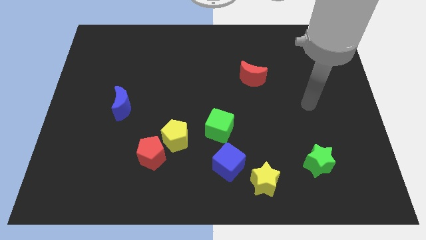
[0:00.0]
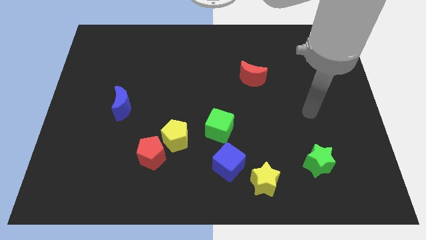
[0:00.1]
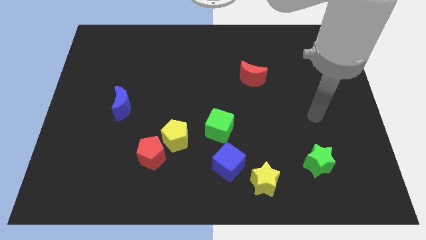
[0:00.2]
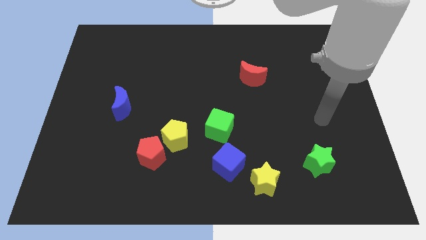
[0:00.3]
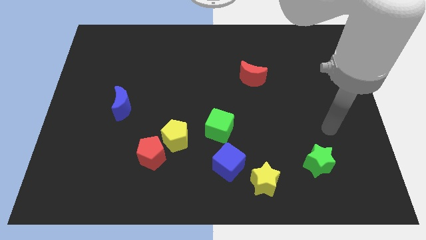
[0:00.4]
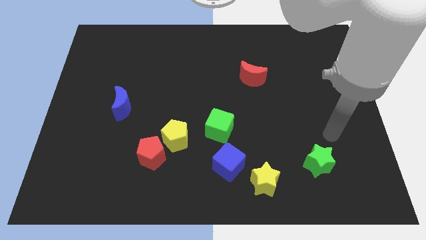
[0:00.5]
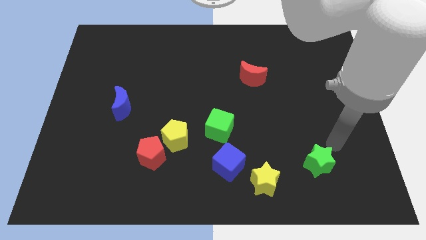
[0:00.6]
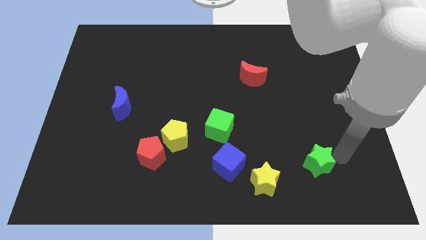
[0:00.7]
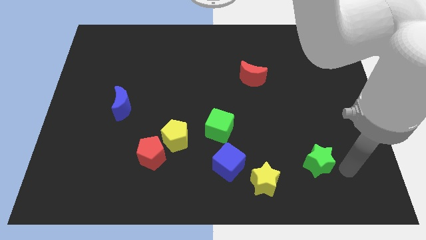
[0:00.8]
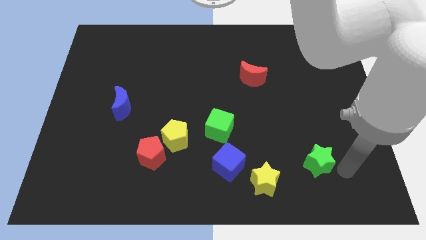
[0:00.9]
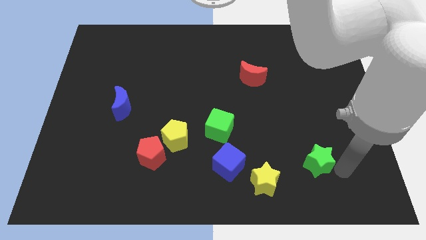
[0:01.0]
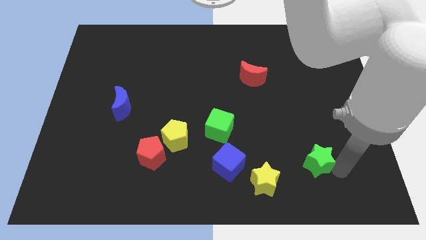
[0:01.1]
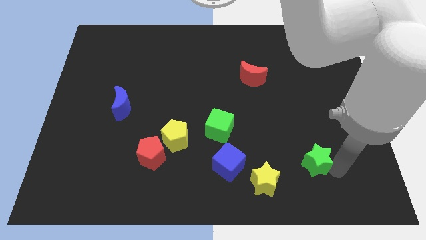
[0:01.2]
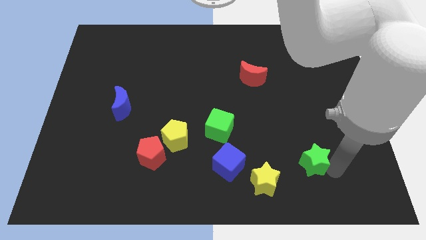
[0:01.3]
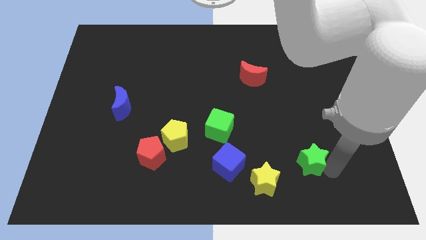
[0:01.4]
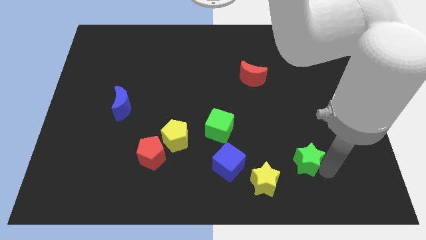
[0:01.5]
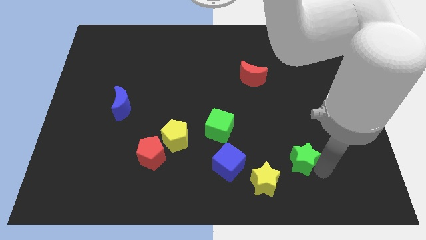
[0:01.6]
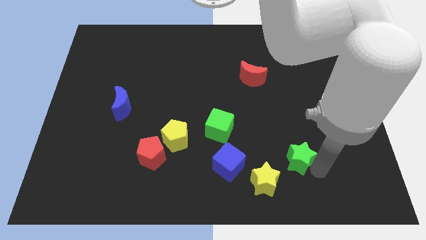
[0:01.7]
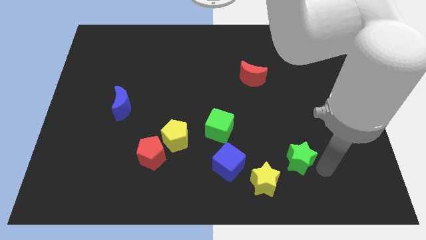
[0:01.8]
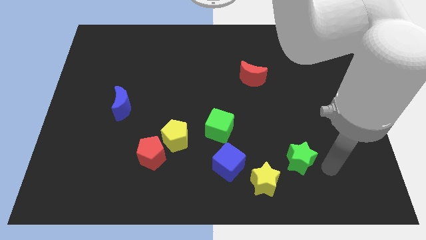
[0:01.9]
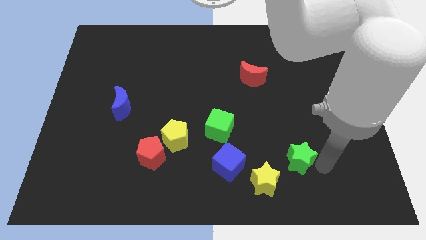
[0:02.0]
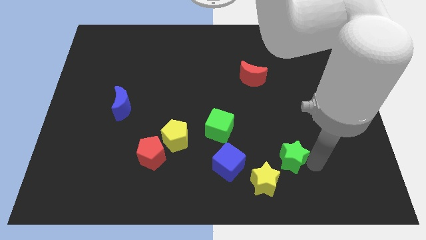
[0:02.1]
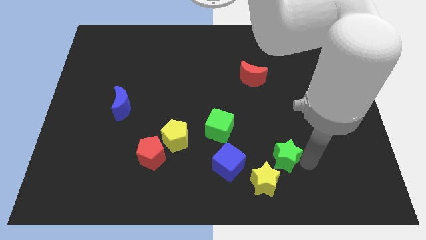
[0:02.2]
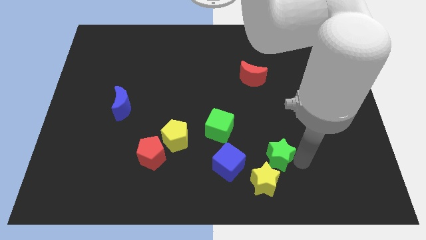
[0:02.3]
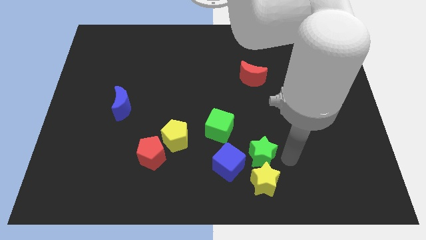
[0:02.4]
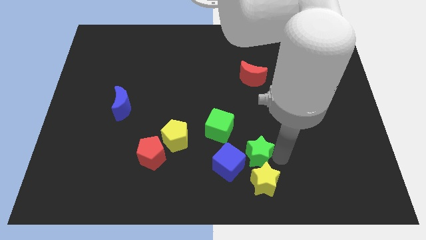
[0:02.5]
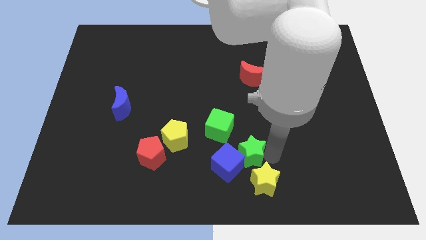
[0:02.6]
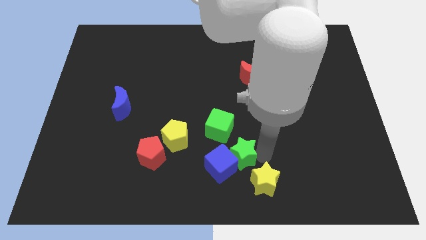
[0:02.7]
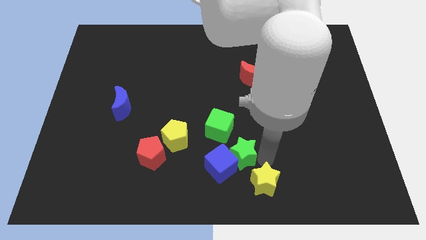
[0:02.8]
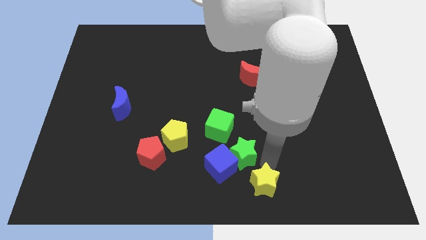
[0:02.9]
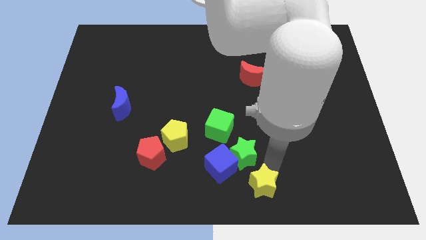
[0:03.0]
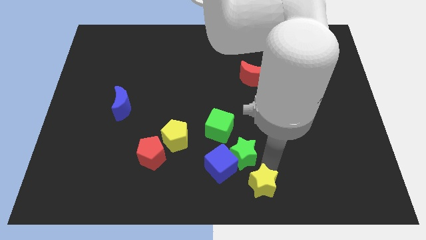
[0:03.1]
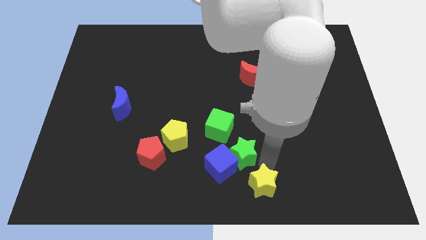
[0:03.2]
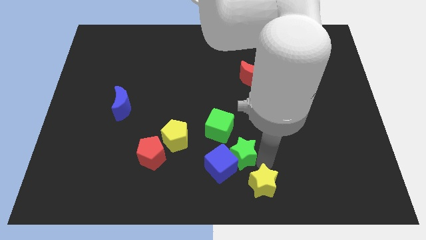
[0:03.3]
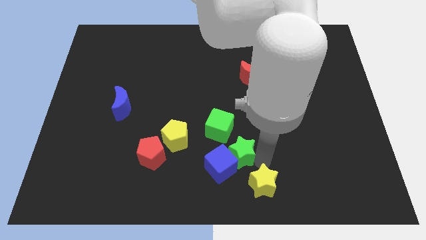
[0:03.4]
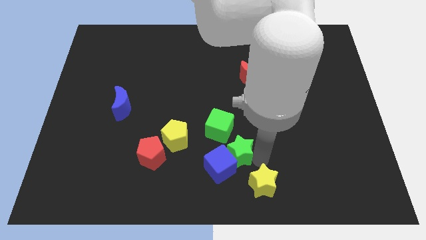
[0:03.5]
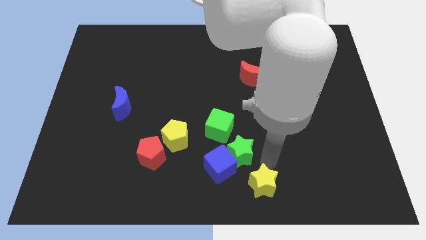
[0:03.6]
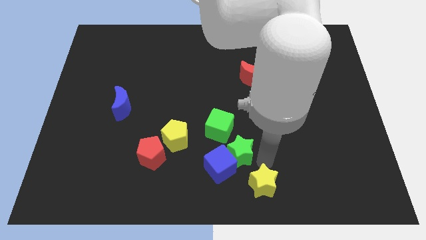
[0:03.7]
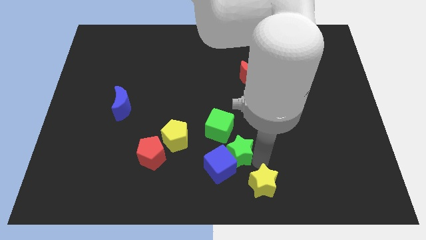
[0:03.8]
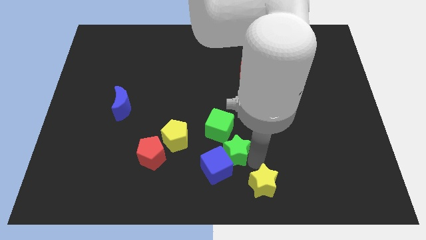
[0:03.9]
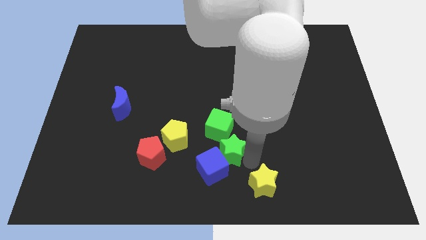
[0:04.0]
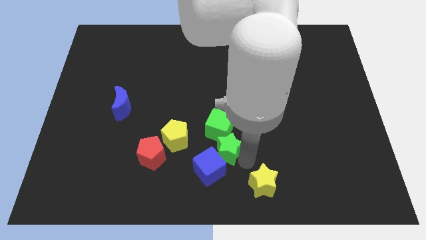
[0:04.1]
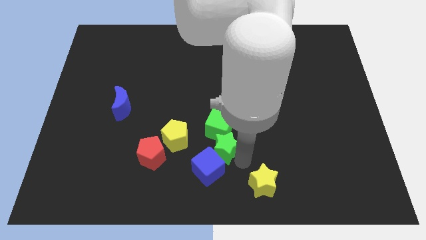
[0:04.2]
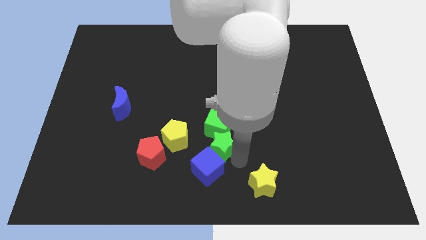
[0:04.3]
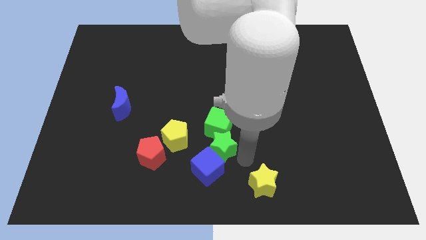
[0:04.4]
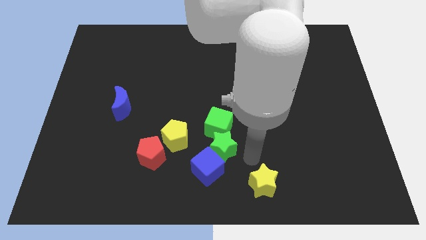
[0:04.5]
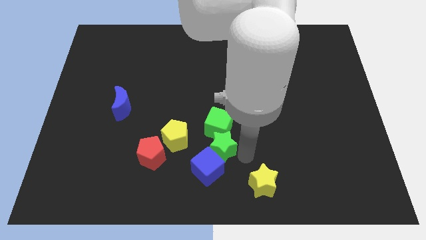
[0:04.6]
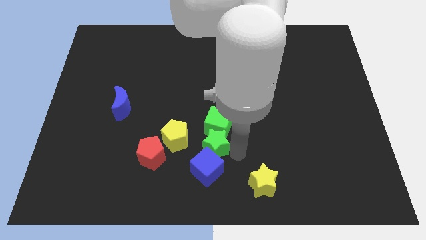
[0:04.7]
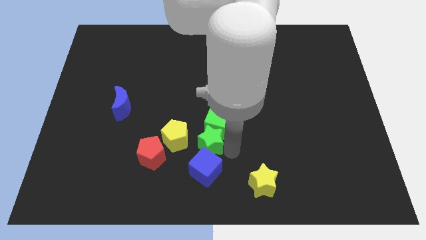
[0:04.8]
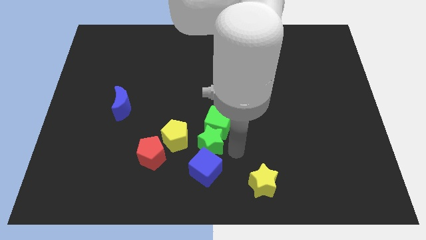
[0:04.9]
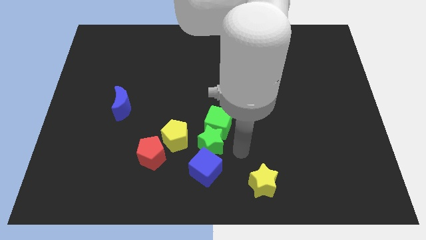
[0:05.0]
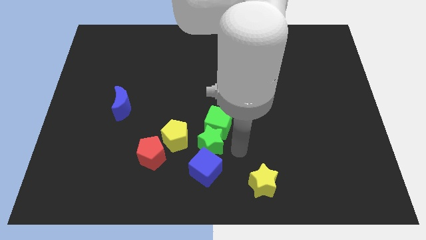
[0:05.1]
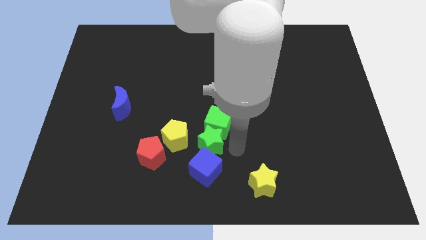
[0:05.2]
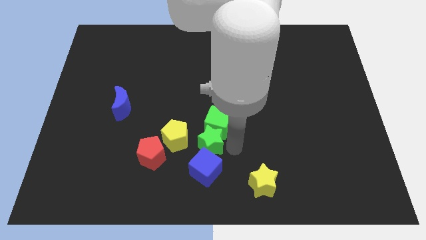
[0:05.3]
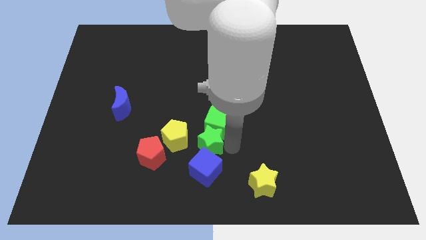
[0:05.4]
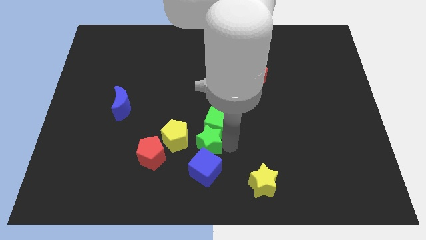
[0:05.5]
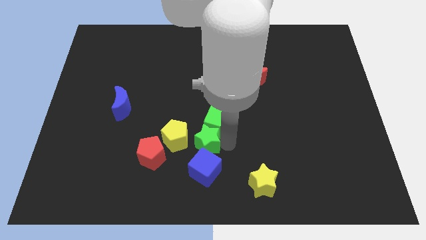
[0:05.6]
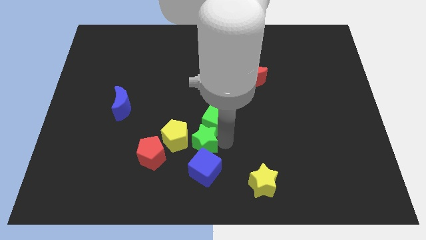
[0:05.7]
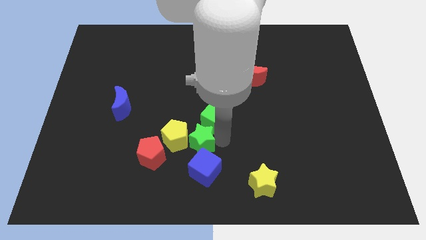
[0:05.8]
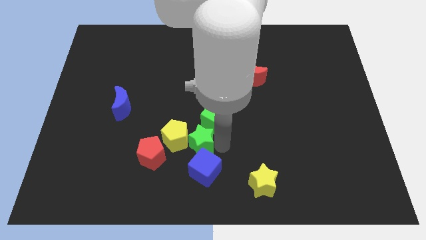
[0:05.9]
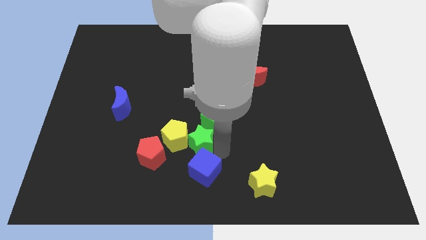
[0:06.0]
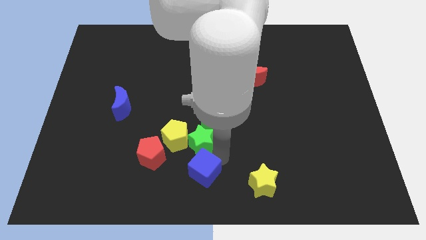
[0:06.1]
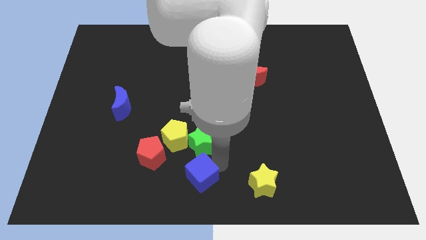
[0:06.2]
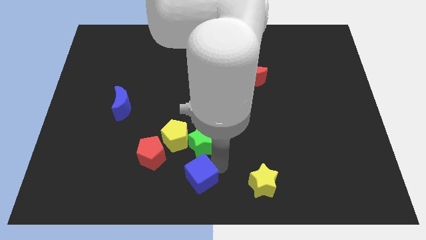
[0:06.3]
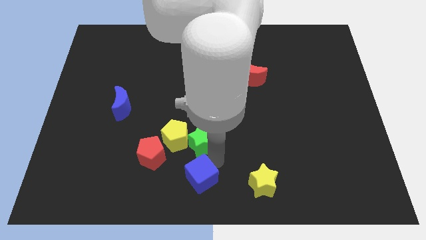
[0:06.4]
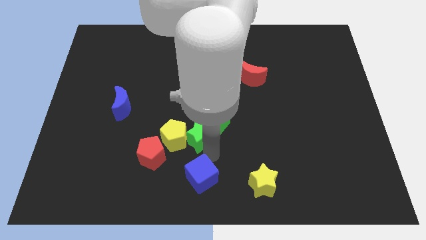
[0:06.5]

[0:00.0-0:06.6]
push the green star diagonally up and to the right of the red pentagon
